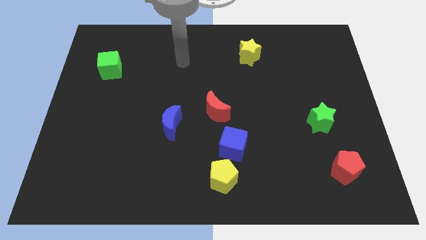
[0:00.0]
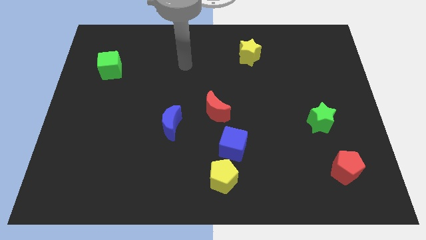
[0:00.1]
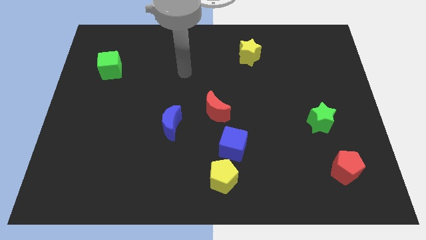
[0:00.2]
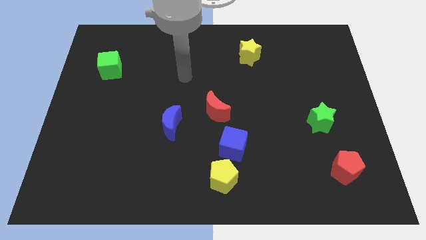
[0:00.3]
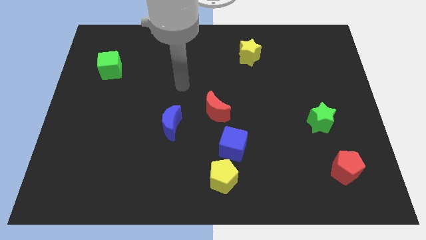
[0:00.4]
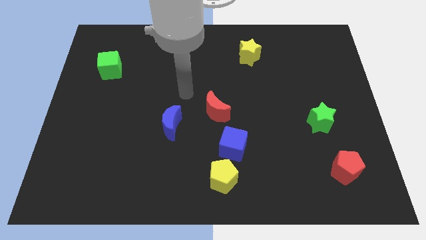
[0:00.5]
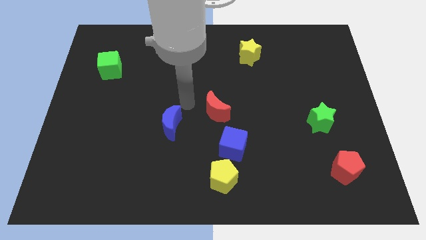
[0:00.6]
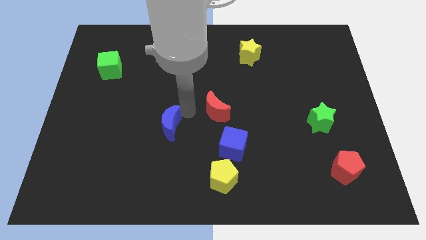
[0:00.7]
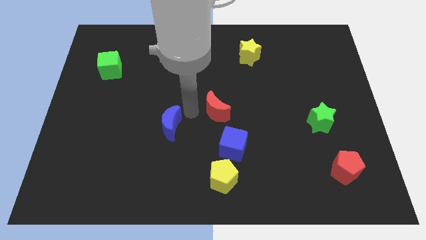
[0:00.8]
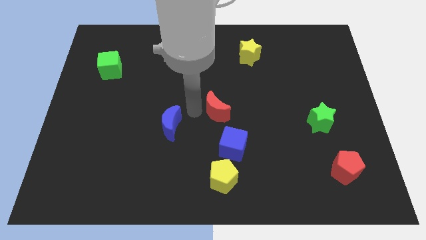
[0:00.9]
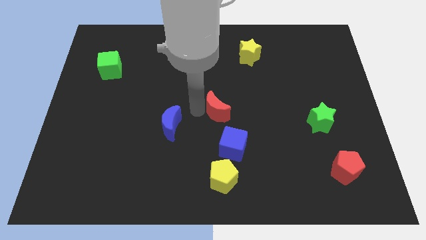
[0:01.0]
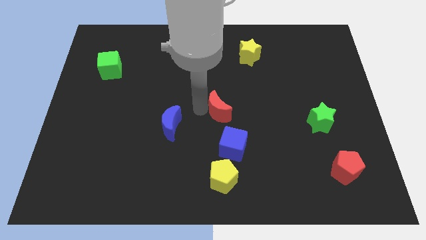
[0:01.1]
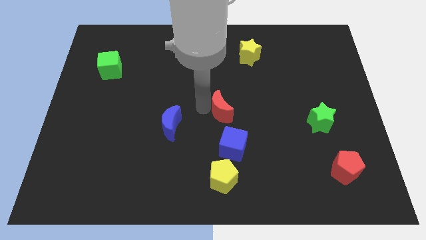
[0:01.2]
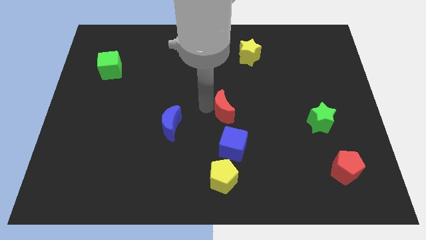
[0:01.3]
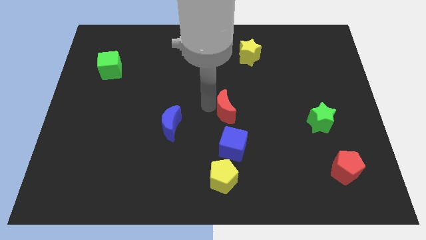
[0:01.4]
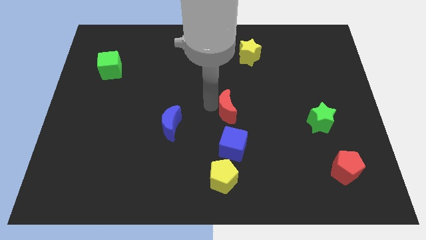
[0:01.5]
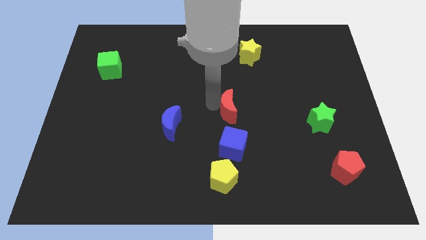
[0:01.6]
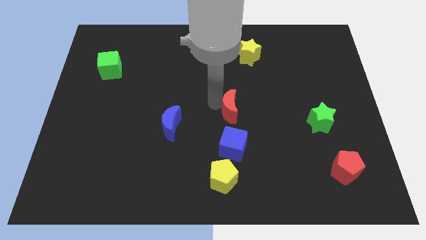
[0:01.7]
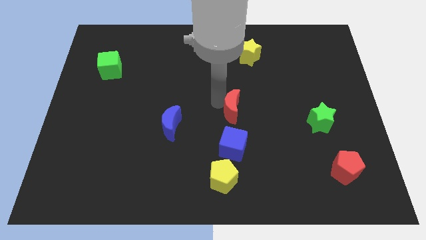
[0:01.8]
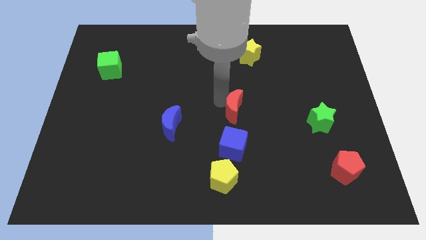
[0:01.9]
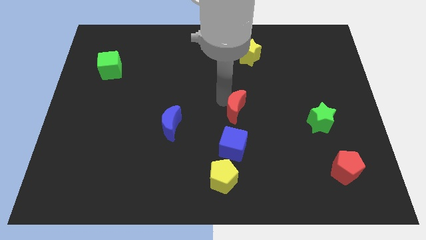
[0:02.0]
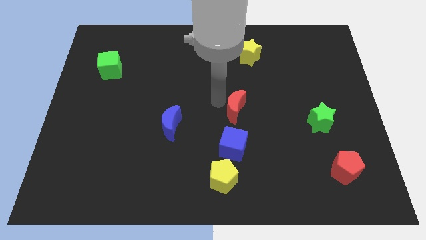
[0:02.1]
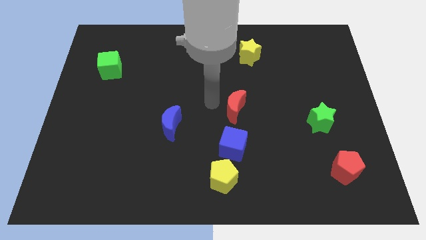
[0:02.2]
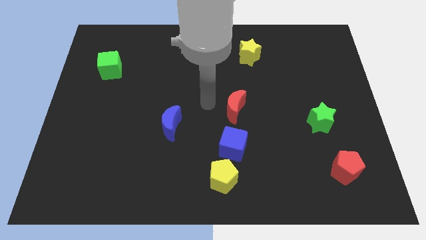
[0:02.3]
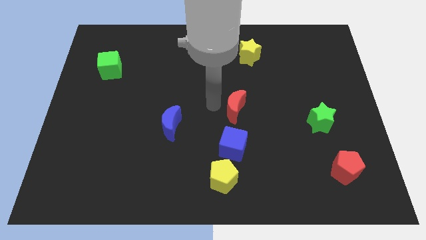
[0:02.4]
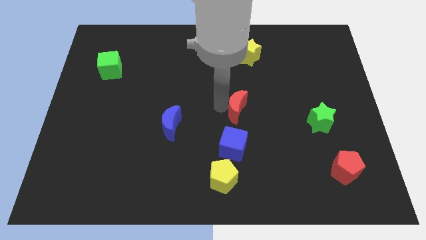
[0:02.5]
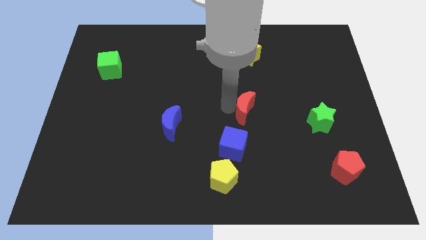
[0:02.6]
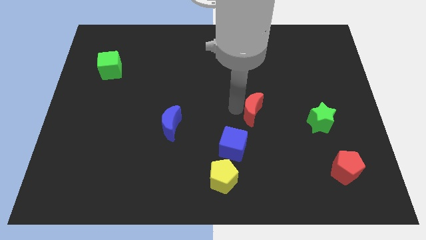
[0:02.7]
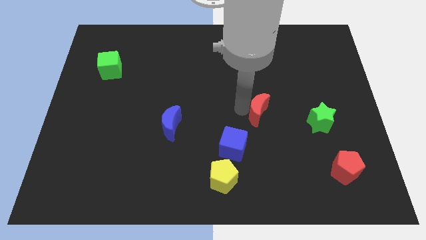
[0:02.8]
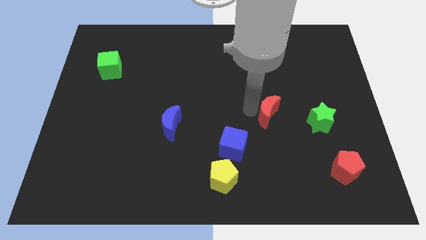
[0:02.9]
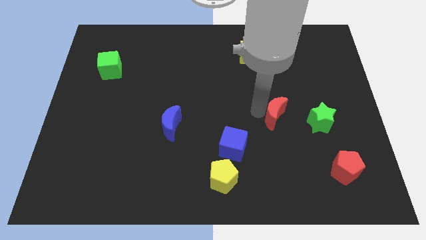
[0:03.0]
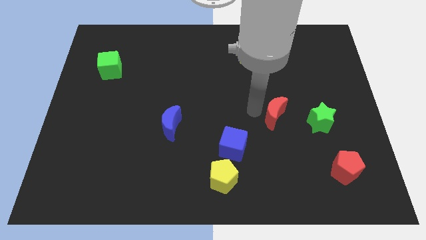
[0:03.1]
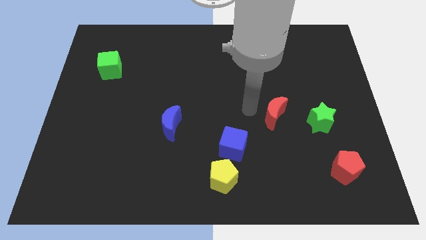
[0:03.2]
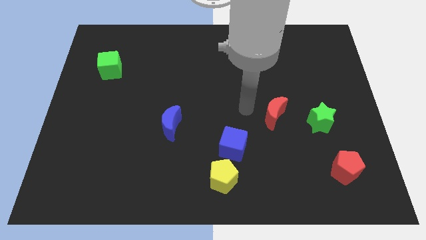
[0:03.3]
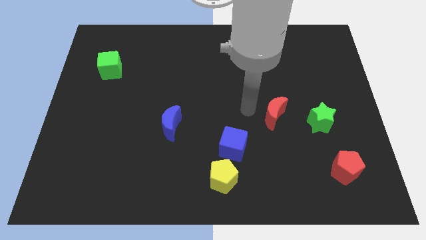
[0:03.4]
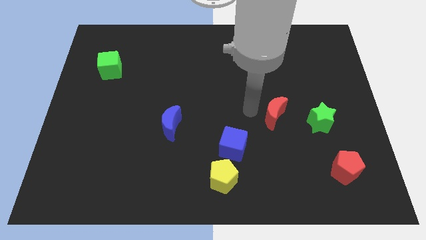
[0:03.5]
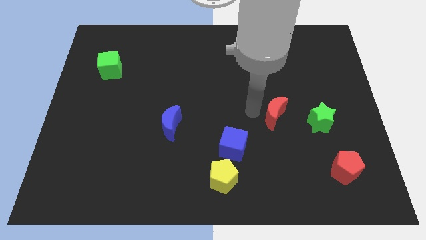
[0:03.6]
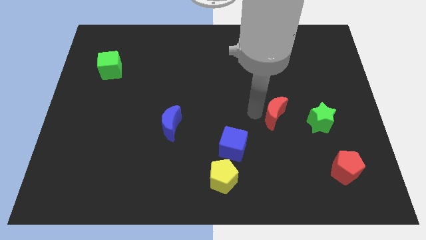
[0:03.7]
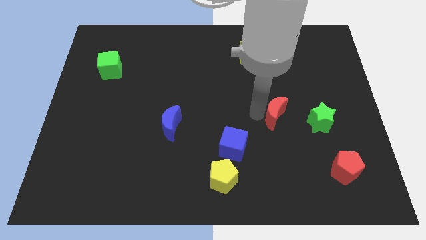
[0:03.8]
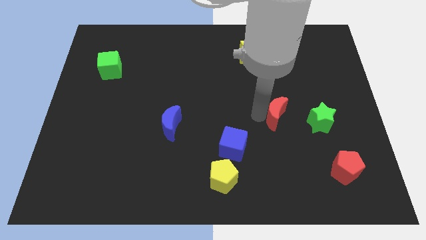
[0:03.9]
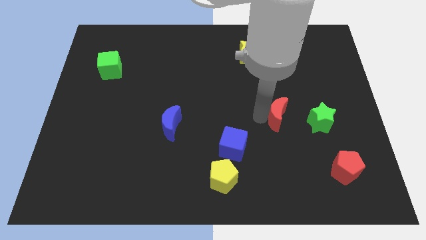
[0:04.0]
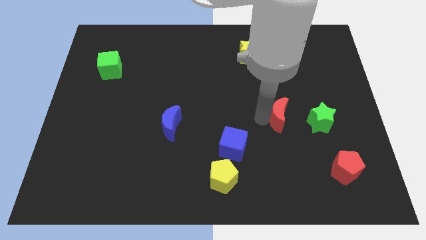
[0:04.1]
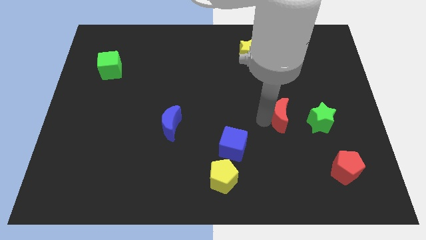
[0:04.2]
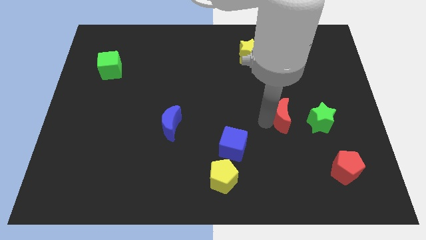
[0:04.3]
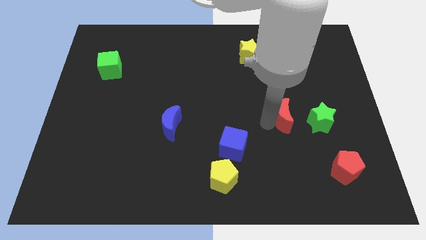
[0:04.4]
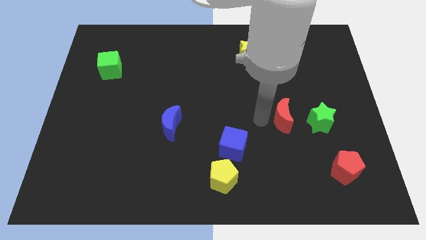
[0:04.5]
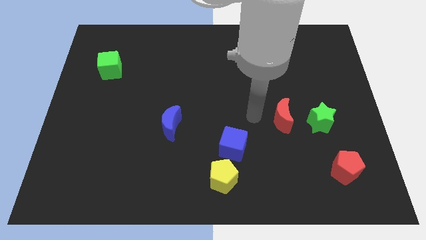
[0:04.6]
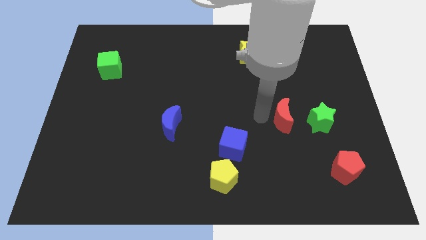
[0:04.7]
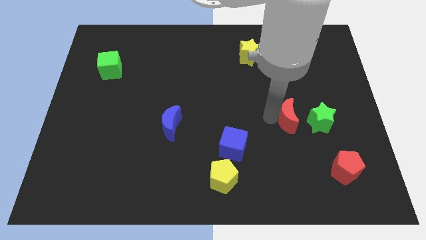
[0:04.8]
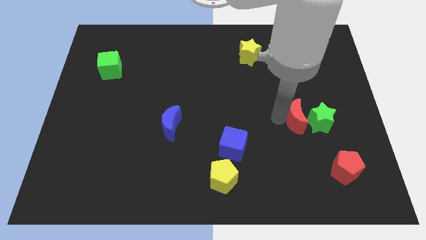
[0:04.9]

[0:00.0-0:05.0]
move the red moon next to the green star

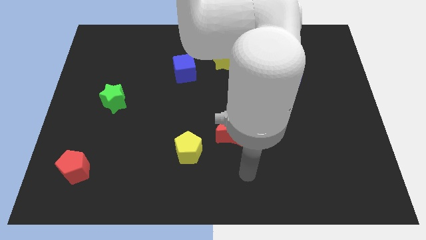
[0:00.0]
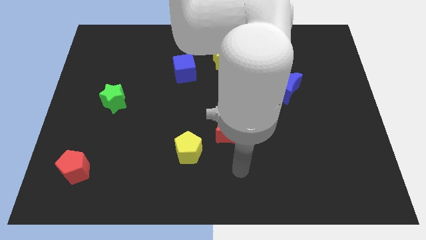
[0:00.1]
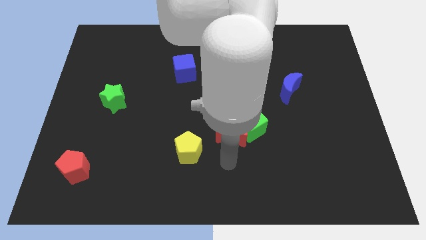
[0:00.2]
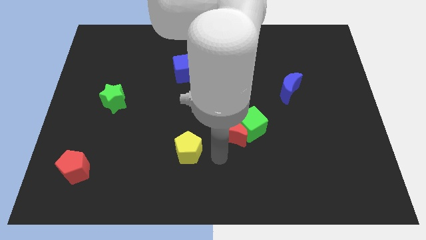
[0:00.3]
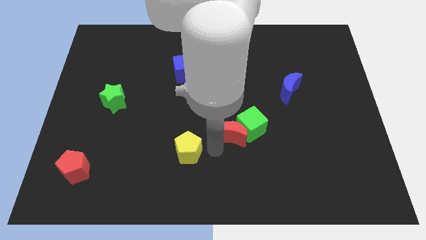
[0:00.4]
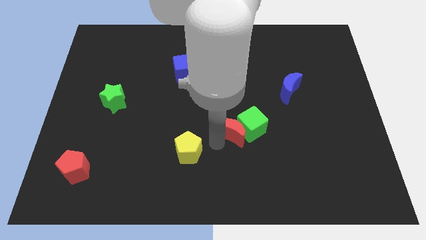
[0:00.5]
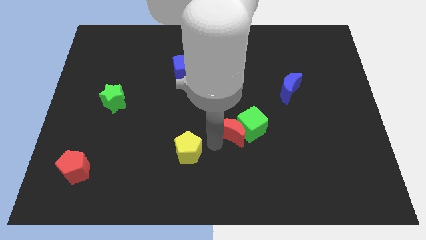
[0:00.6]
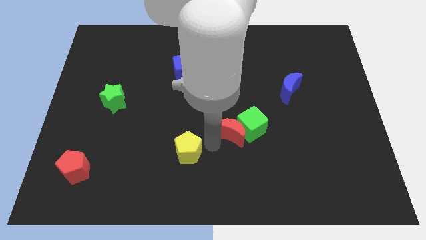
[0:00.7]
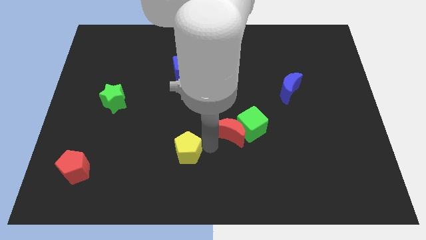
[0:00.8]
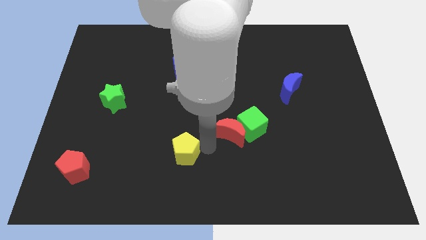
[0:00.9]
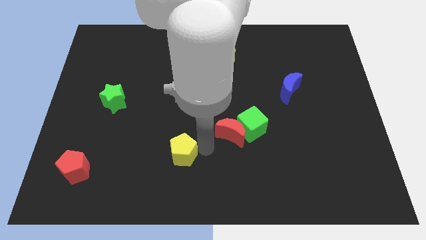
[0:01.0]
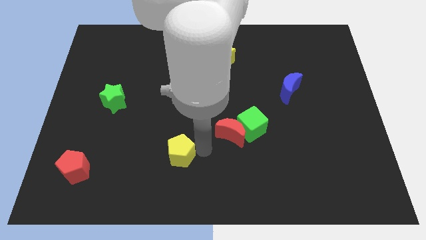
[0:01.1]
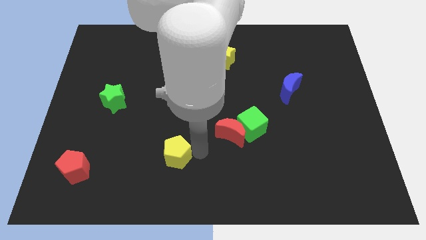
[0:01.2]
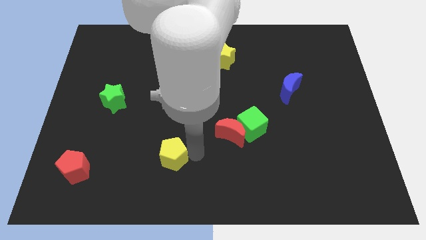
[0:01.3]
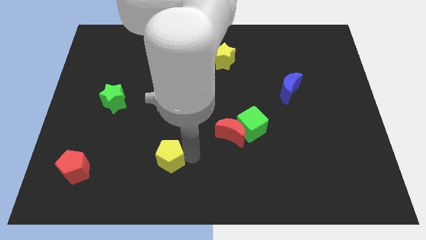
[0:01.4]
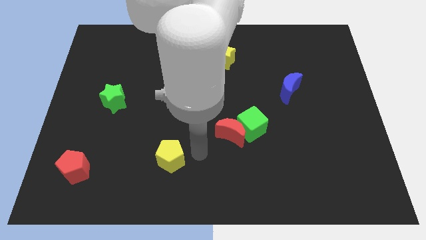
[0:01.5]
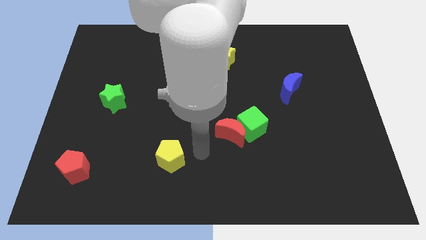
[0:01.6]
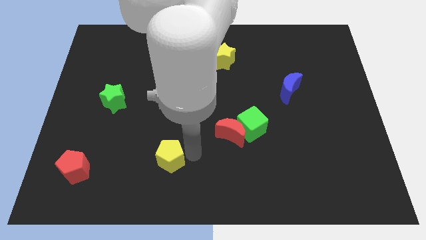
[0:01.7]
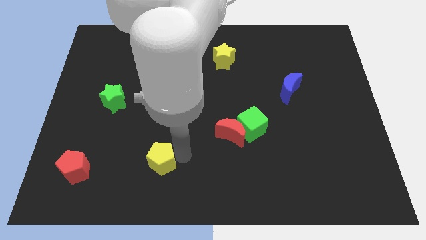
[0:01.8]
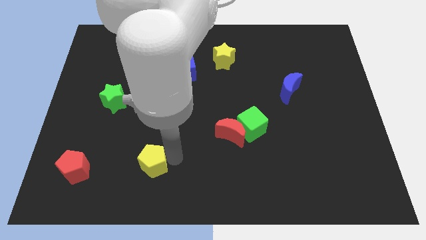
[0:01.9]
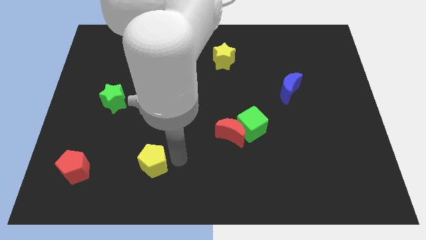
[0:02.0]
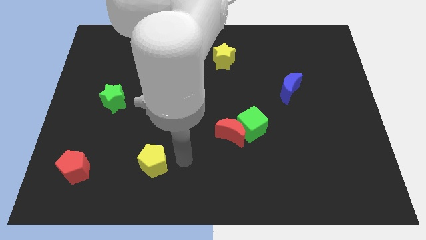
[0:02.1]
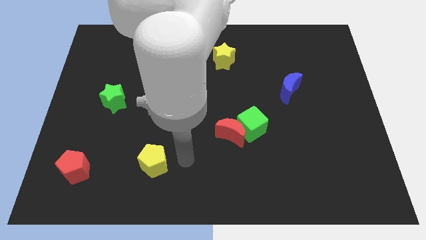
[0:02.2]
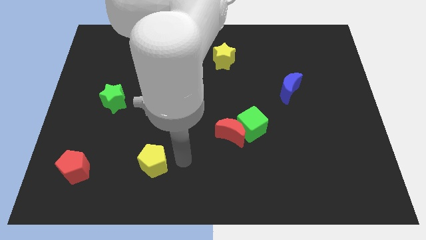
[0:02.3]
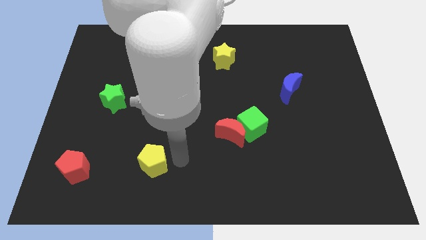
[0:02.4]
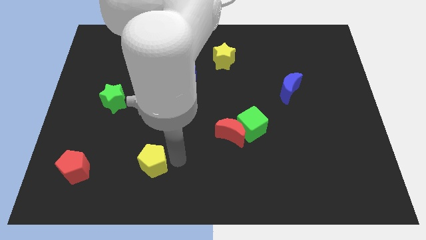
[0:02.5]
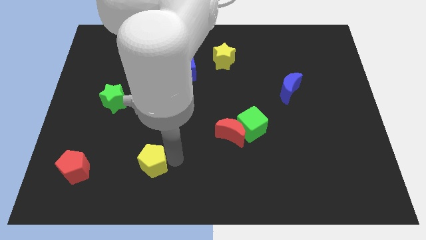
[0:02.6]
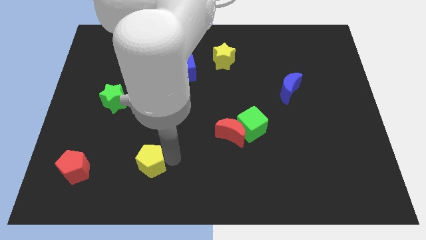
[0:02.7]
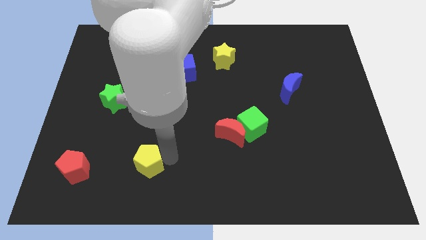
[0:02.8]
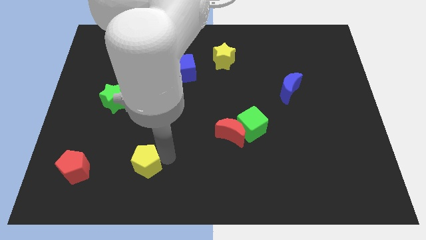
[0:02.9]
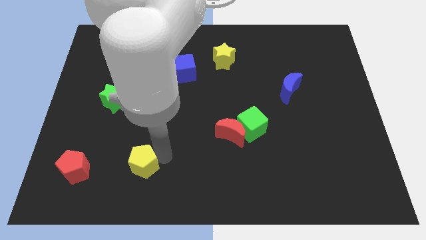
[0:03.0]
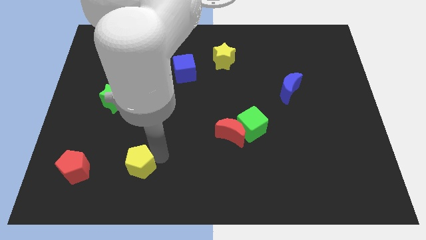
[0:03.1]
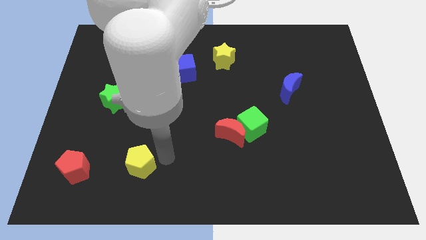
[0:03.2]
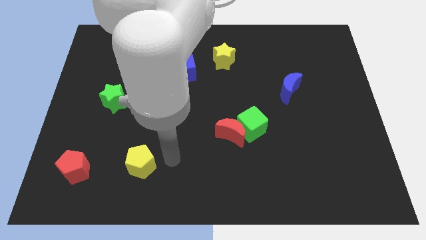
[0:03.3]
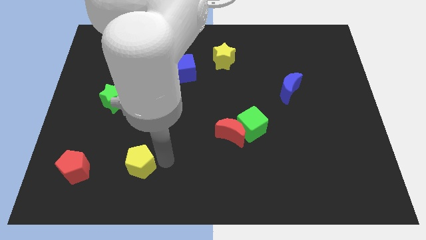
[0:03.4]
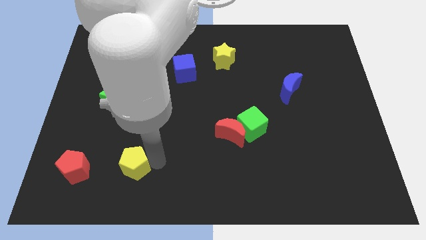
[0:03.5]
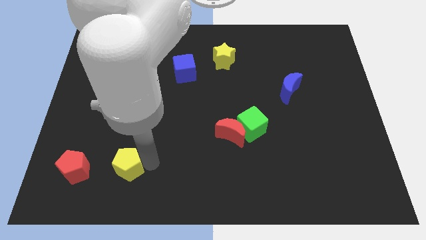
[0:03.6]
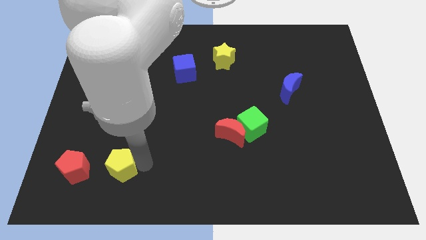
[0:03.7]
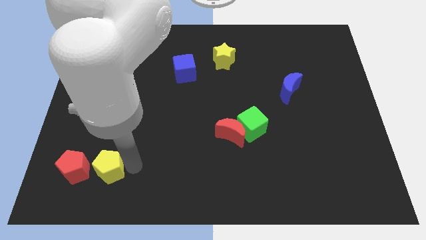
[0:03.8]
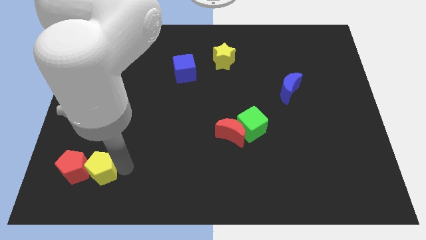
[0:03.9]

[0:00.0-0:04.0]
slide the yellow pentagon to the red pentagon
